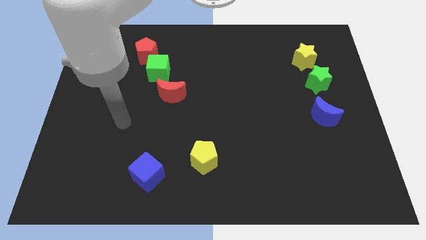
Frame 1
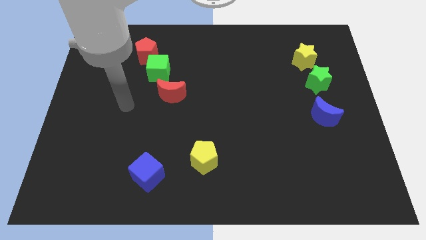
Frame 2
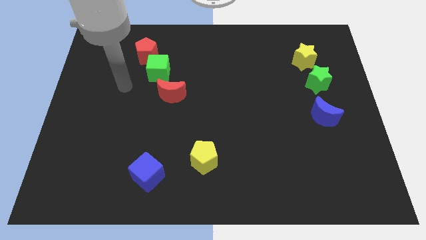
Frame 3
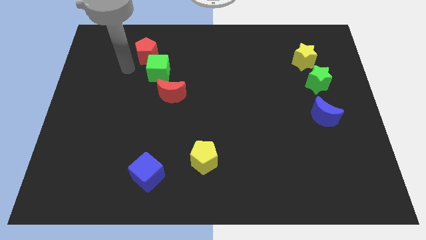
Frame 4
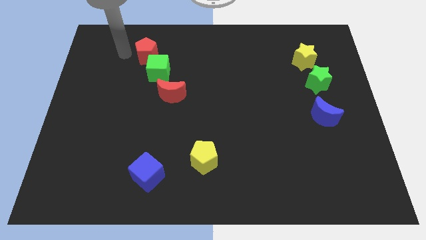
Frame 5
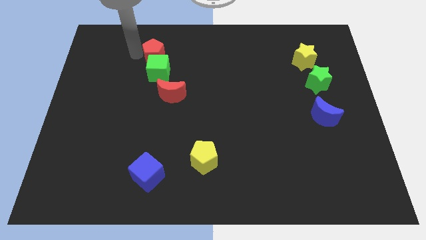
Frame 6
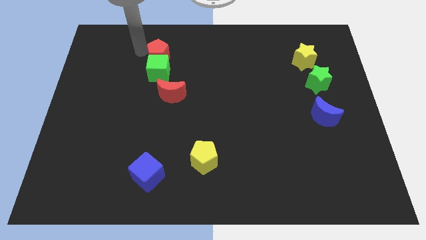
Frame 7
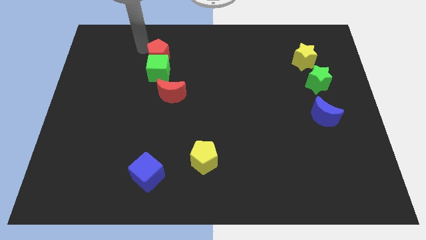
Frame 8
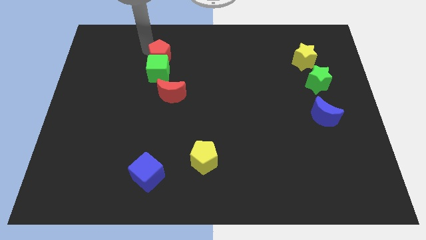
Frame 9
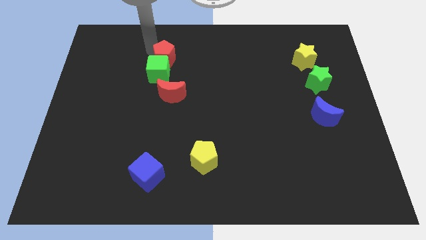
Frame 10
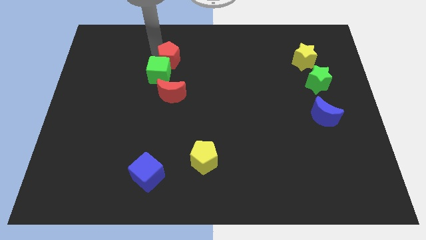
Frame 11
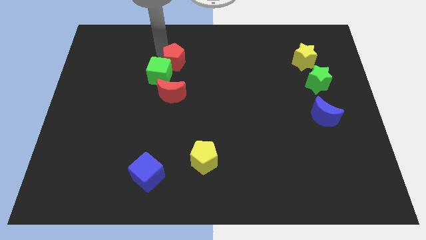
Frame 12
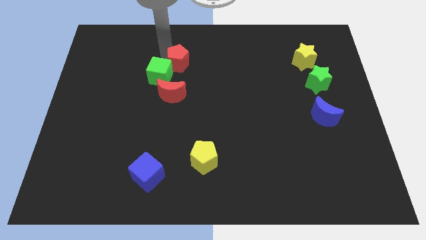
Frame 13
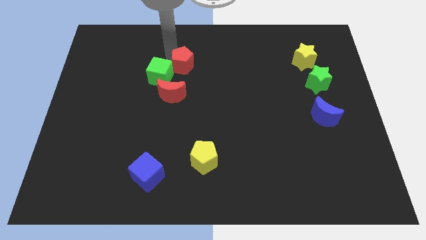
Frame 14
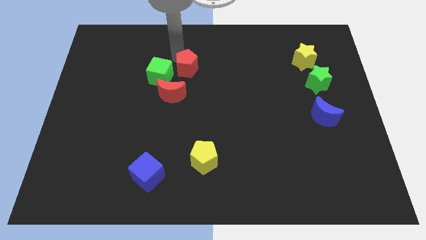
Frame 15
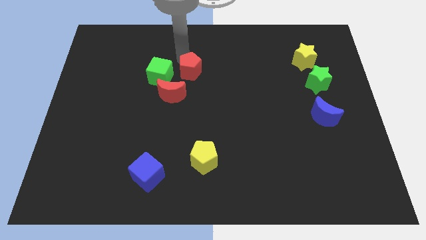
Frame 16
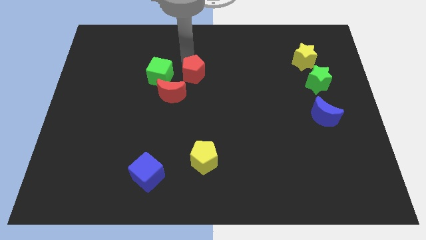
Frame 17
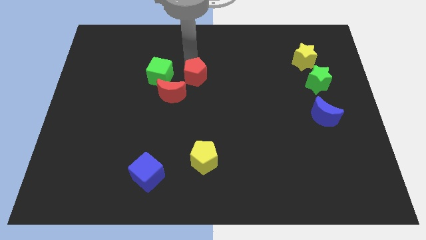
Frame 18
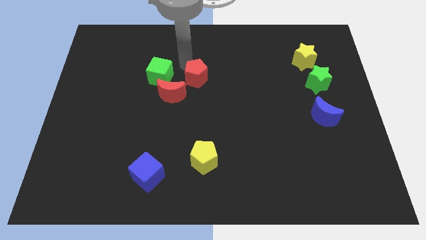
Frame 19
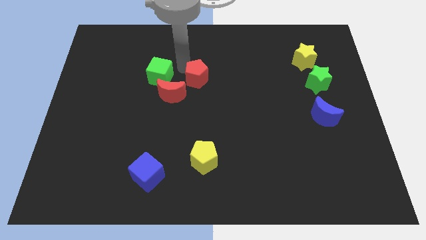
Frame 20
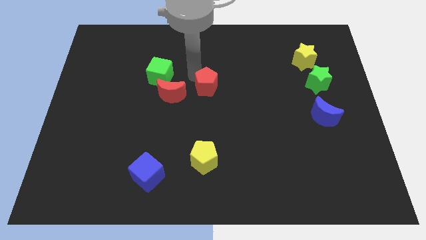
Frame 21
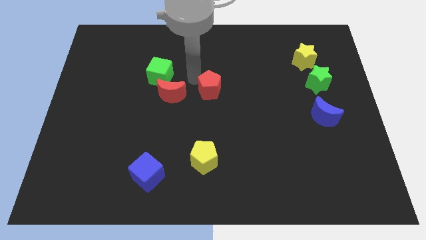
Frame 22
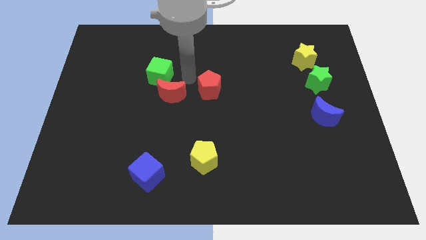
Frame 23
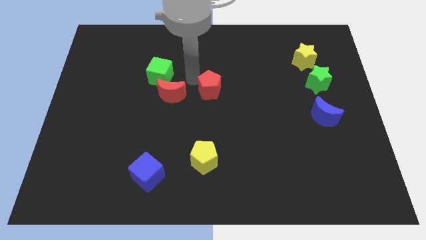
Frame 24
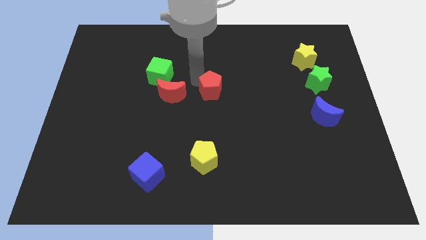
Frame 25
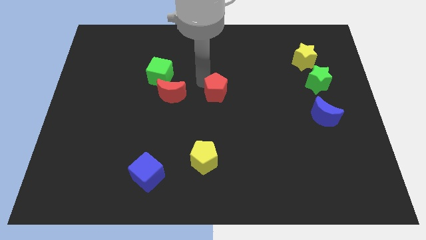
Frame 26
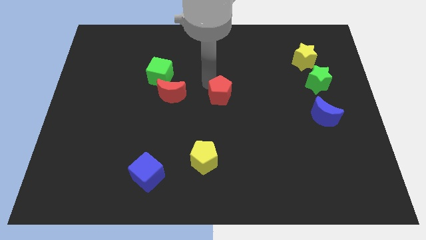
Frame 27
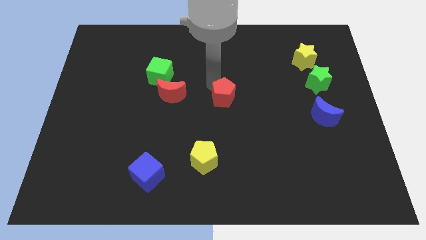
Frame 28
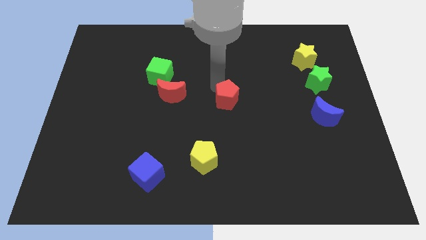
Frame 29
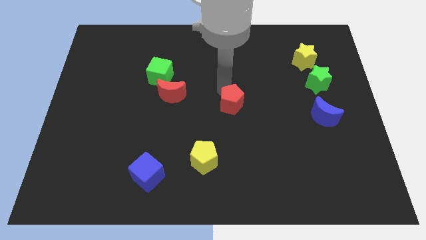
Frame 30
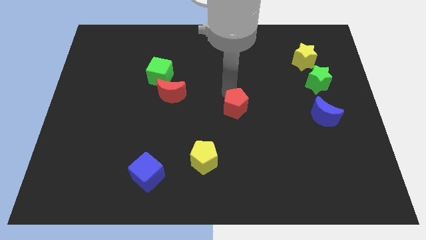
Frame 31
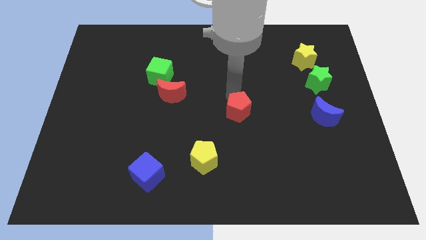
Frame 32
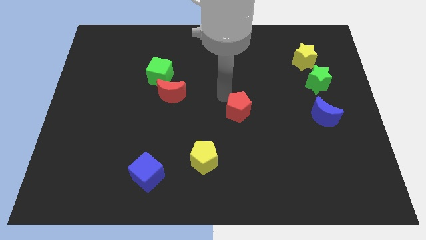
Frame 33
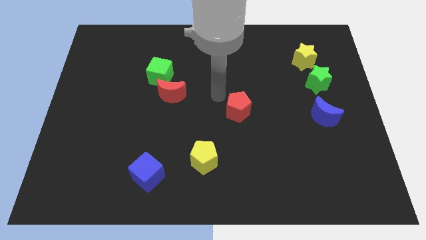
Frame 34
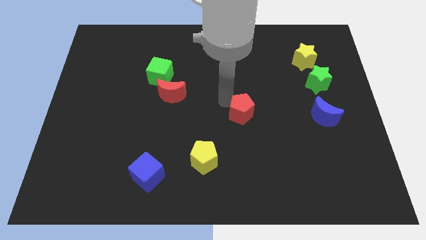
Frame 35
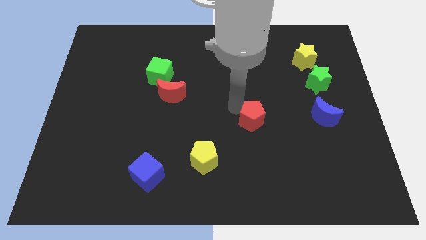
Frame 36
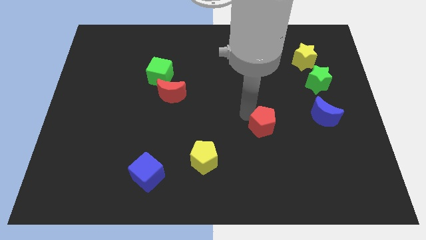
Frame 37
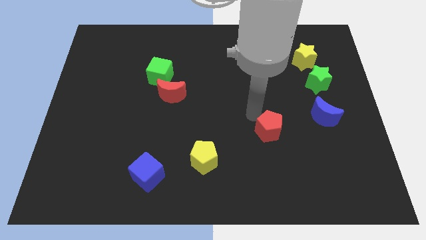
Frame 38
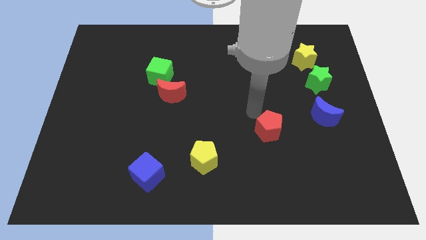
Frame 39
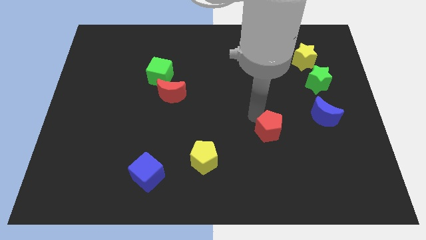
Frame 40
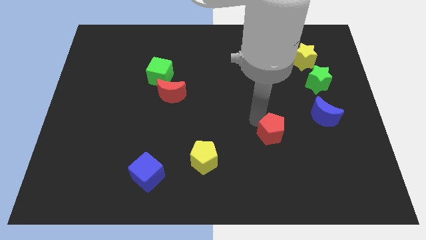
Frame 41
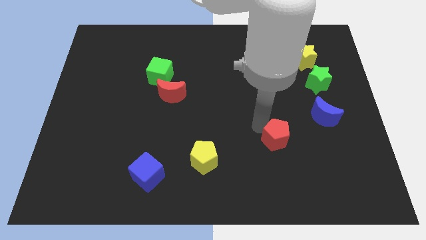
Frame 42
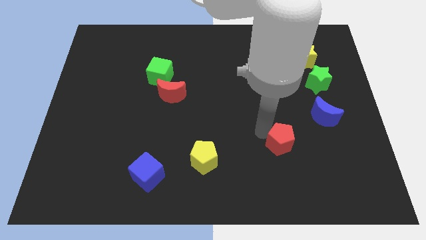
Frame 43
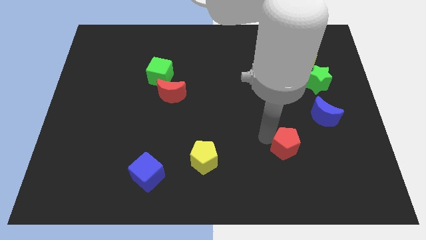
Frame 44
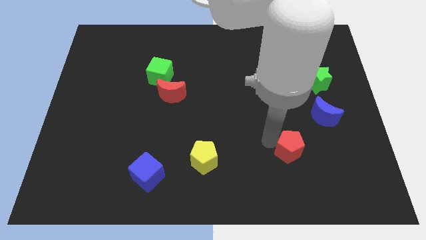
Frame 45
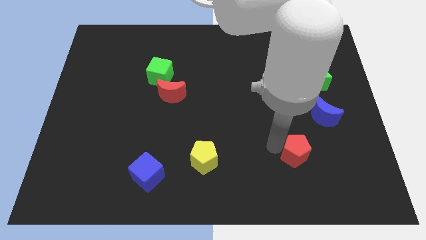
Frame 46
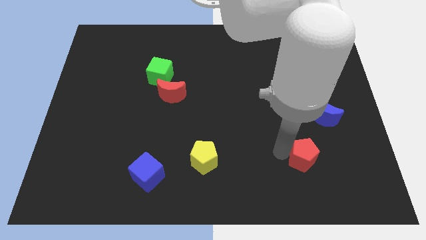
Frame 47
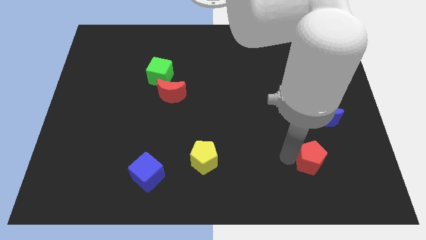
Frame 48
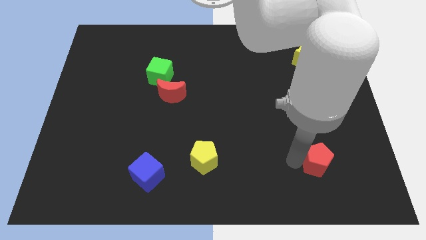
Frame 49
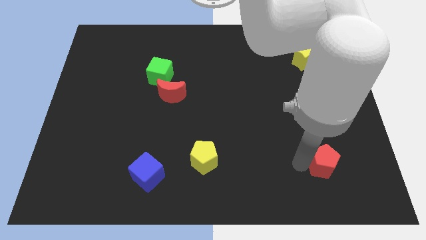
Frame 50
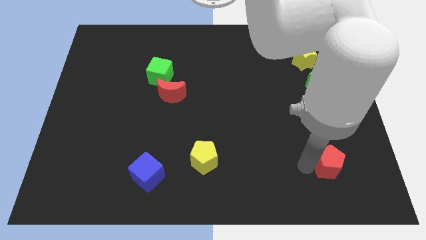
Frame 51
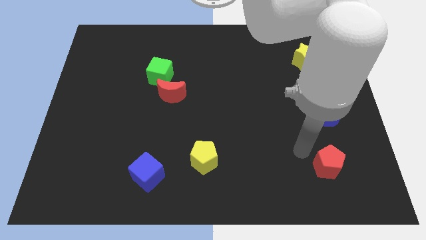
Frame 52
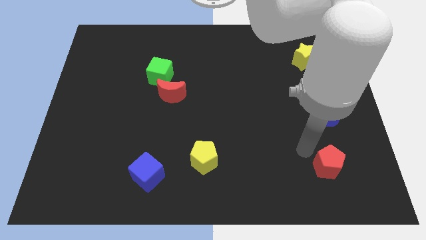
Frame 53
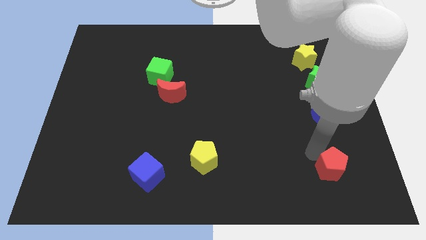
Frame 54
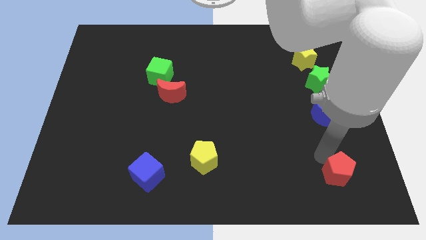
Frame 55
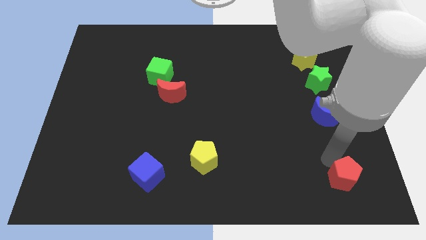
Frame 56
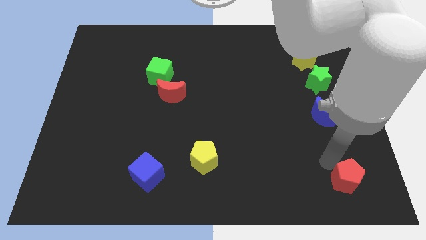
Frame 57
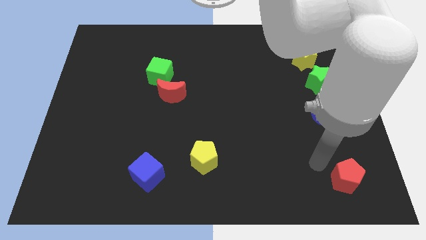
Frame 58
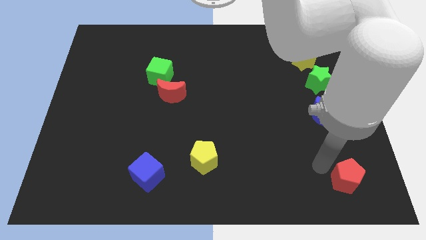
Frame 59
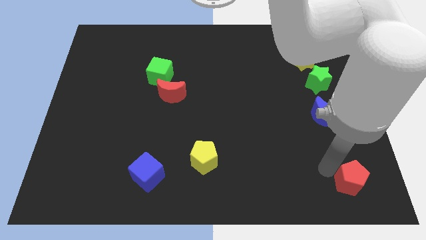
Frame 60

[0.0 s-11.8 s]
slide the red pentagon to the lower right corner

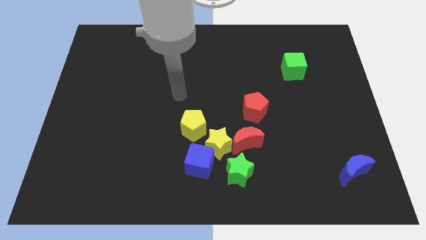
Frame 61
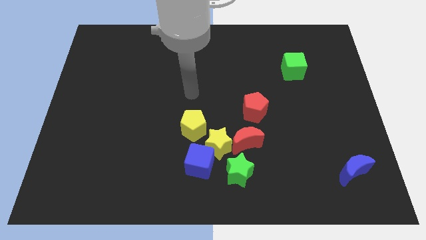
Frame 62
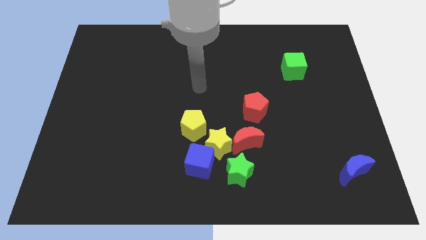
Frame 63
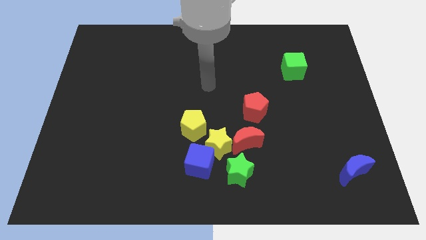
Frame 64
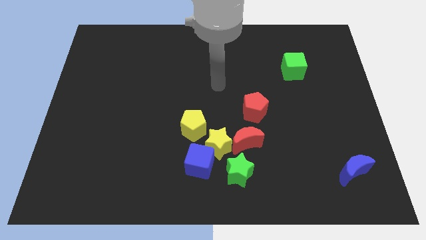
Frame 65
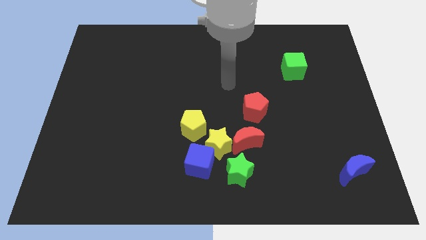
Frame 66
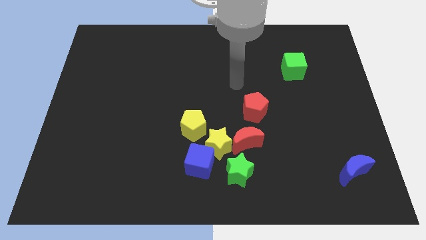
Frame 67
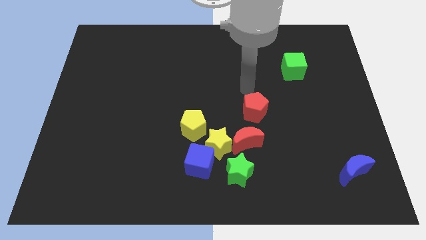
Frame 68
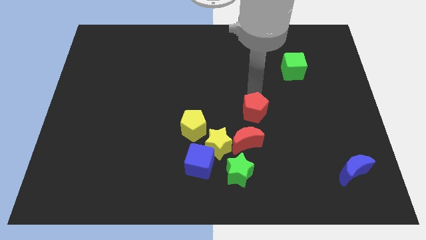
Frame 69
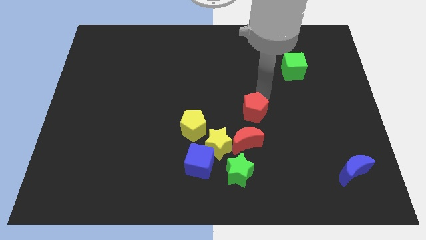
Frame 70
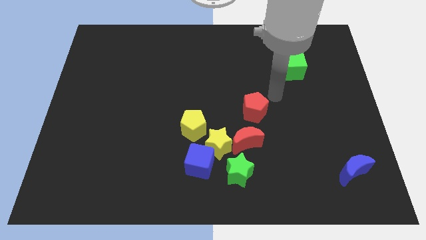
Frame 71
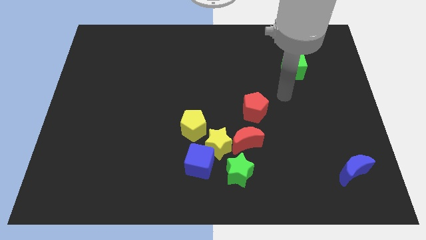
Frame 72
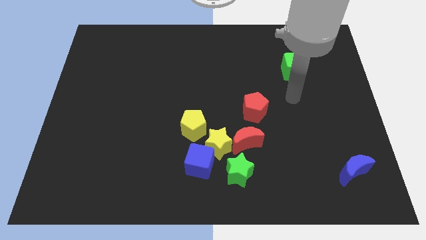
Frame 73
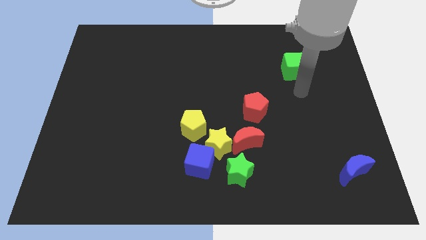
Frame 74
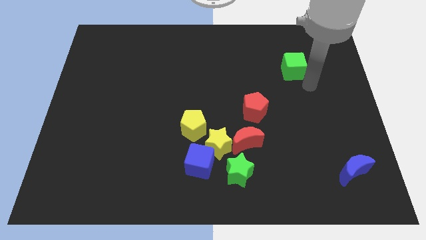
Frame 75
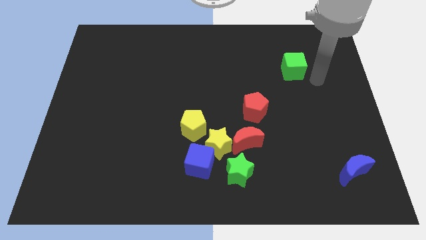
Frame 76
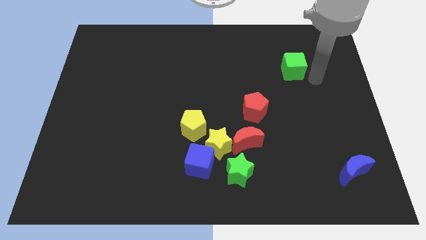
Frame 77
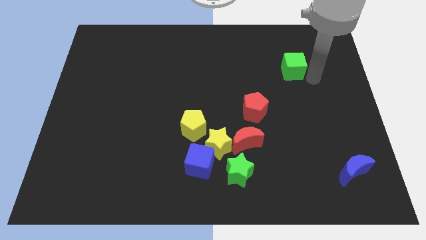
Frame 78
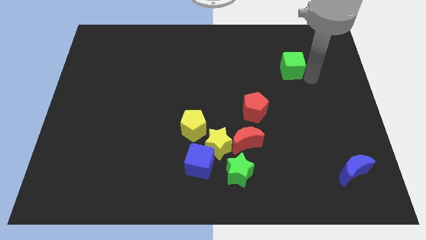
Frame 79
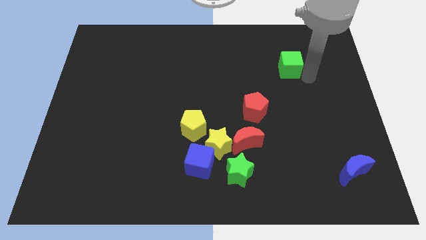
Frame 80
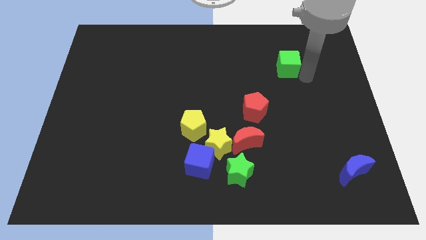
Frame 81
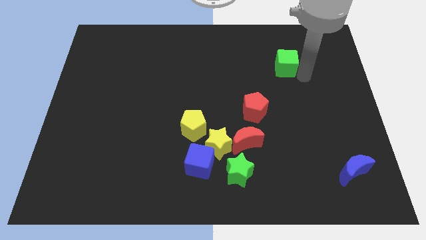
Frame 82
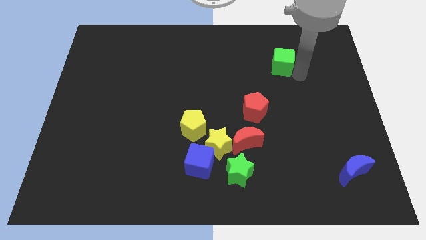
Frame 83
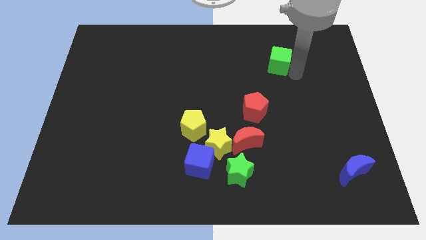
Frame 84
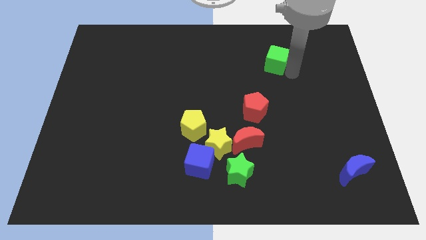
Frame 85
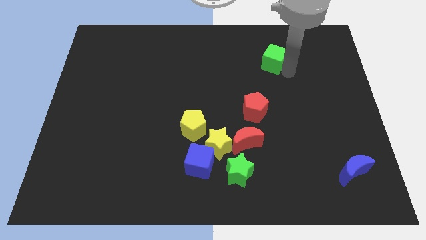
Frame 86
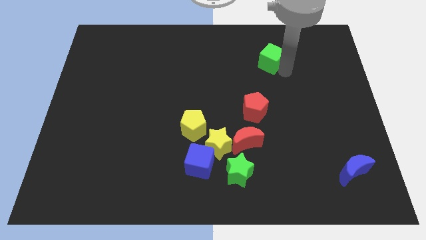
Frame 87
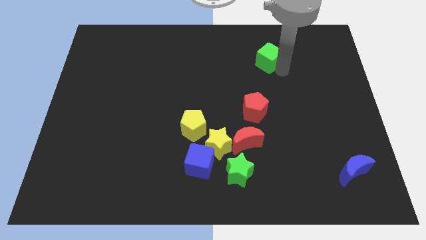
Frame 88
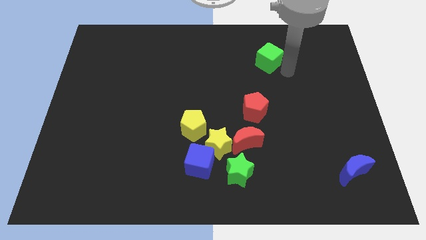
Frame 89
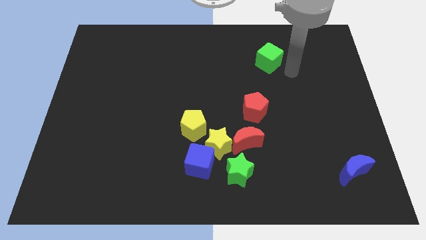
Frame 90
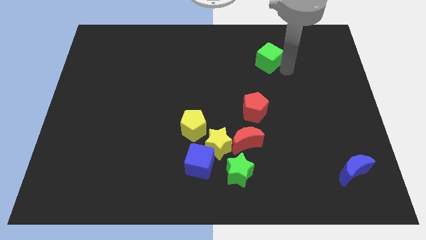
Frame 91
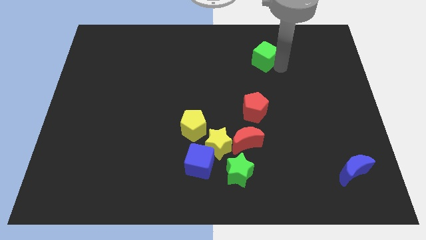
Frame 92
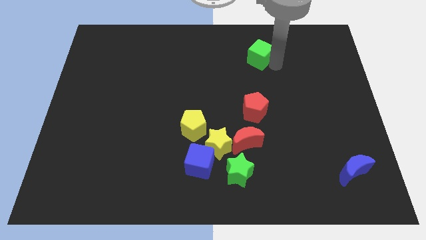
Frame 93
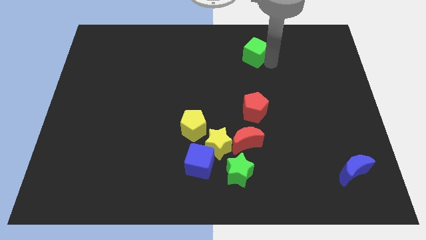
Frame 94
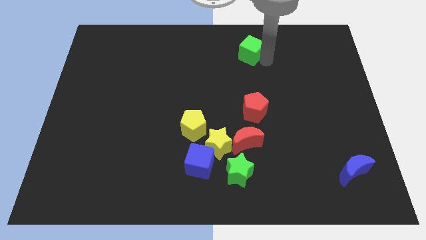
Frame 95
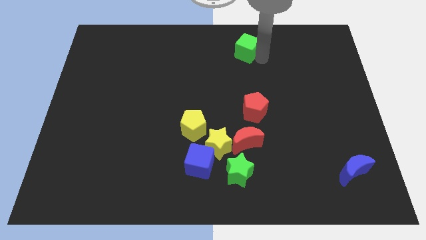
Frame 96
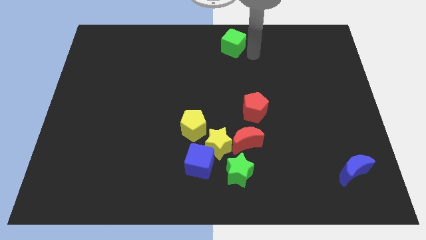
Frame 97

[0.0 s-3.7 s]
put the green cube to the towards your base
